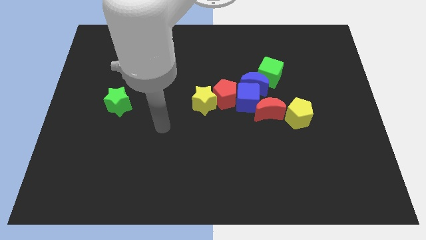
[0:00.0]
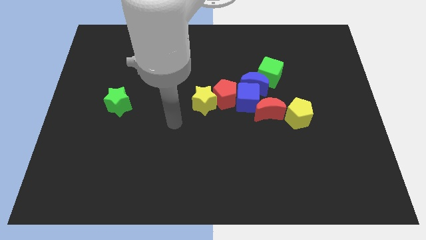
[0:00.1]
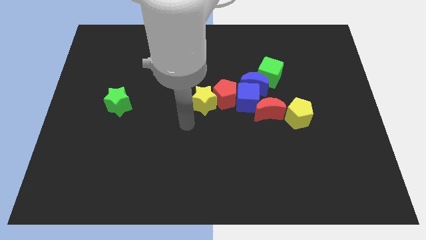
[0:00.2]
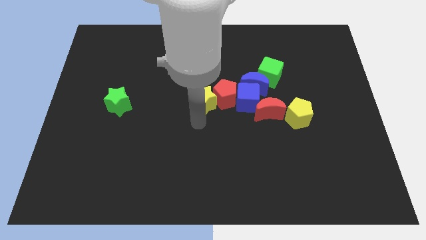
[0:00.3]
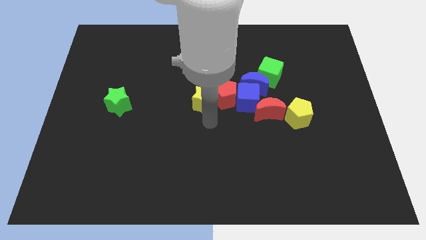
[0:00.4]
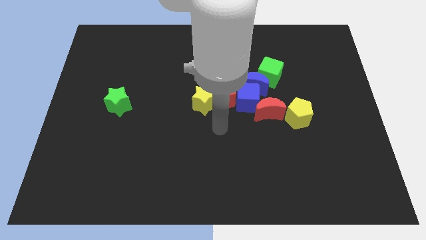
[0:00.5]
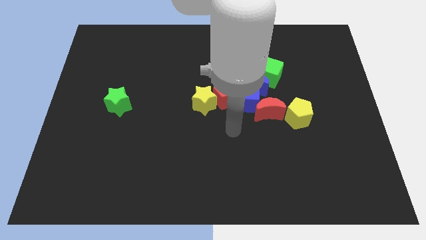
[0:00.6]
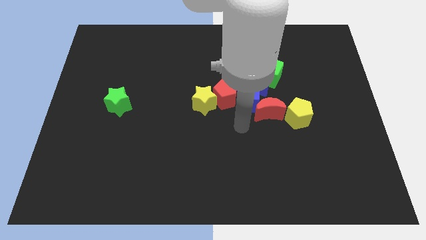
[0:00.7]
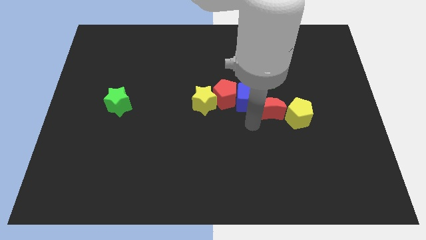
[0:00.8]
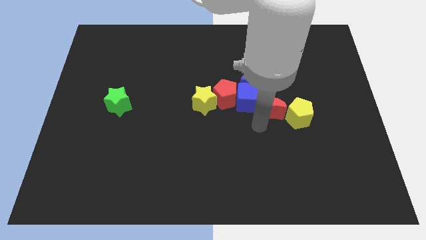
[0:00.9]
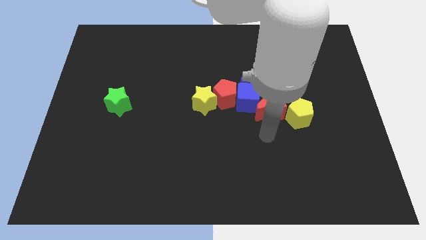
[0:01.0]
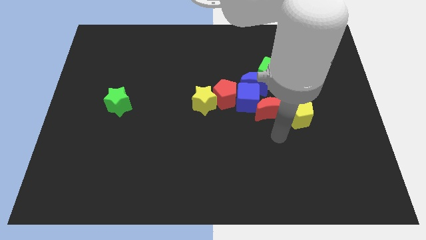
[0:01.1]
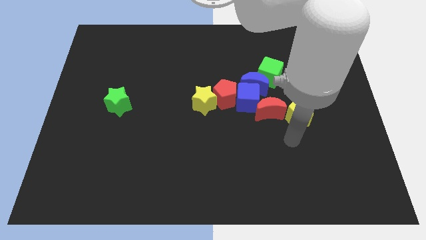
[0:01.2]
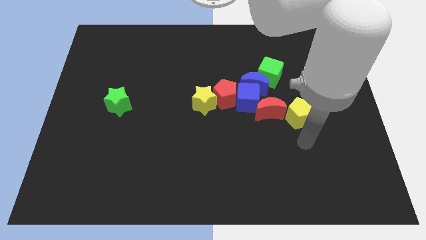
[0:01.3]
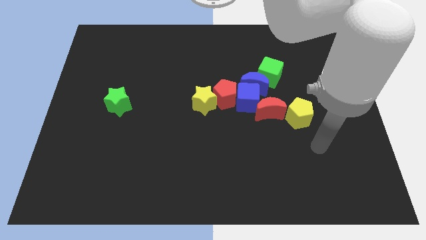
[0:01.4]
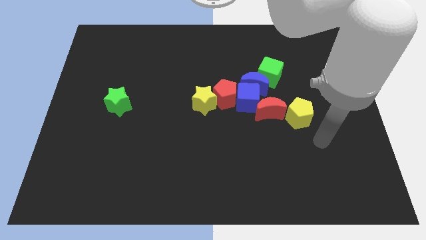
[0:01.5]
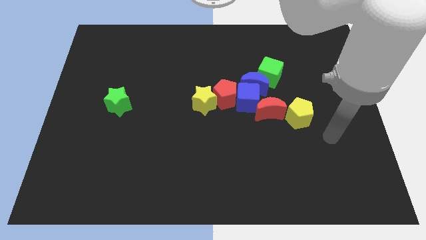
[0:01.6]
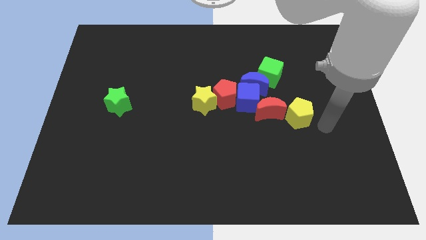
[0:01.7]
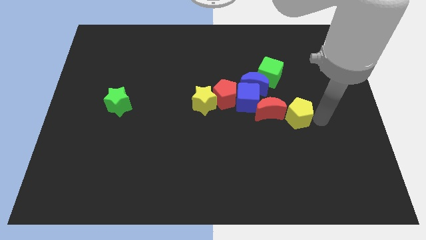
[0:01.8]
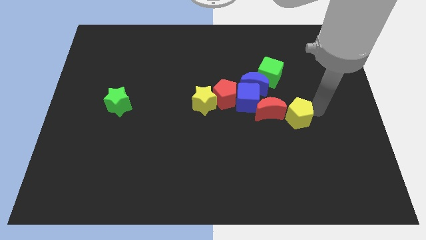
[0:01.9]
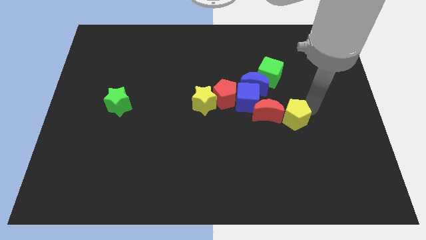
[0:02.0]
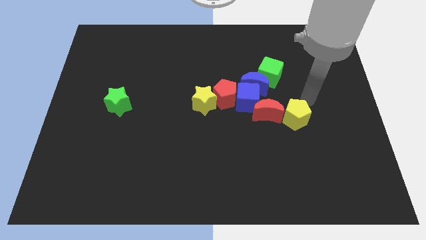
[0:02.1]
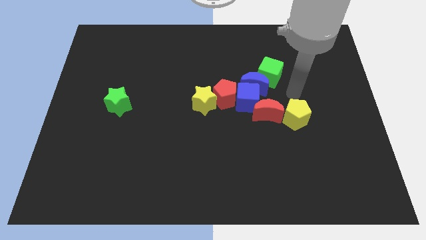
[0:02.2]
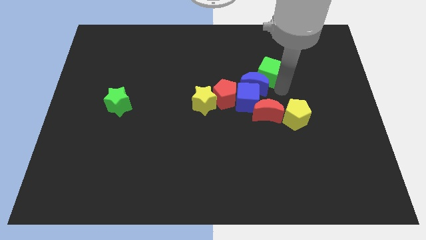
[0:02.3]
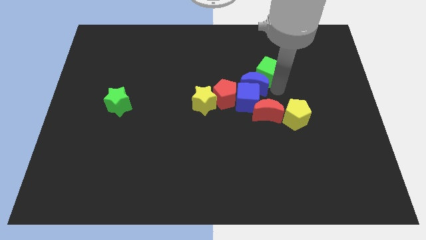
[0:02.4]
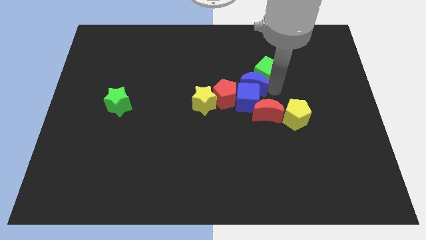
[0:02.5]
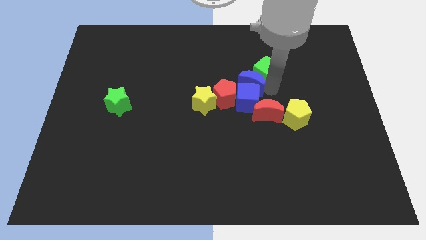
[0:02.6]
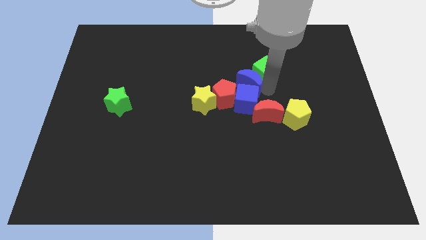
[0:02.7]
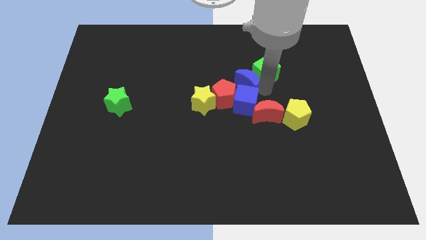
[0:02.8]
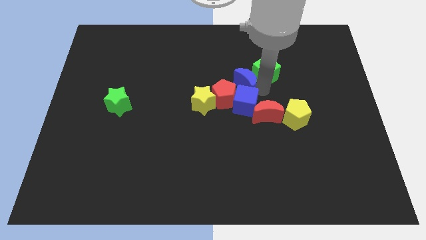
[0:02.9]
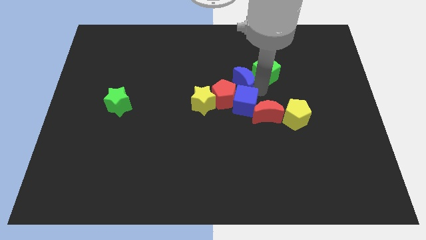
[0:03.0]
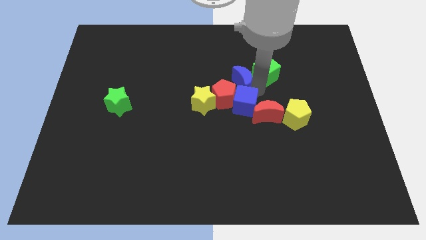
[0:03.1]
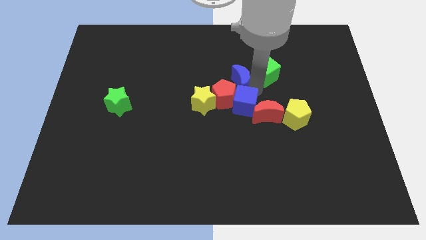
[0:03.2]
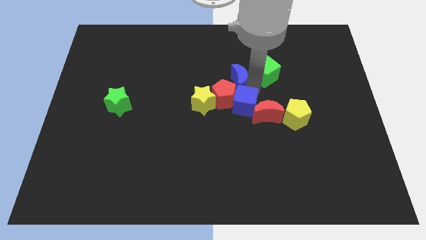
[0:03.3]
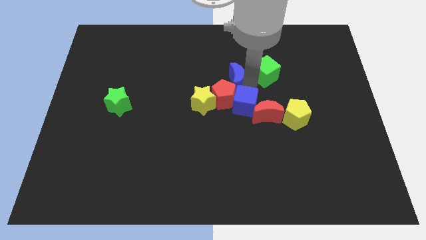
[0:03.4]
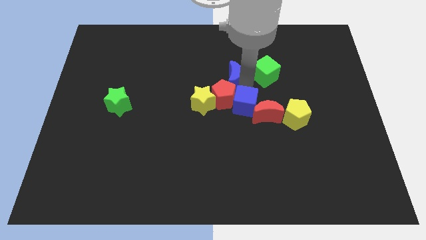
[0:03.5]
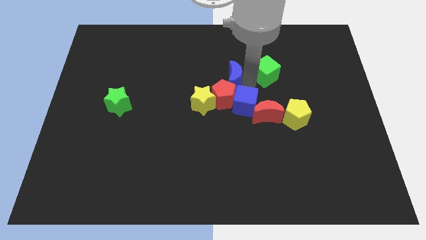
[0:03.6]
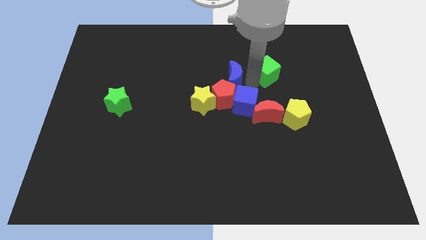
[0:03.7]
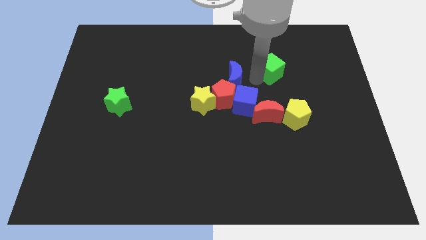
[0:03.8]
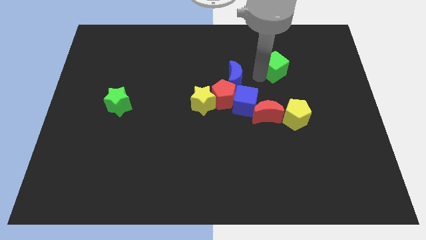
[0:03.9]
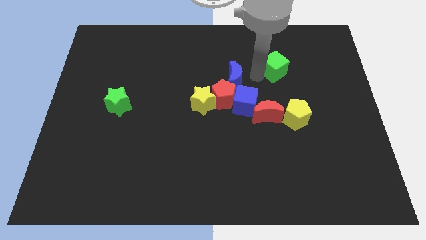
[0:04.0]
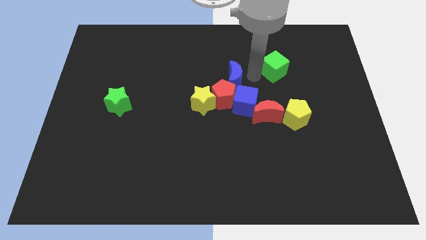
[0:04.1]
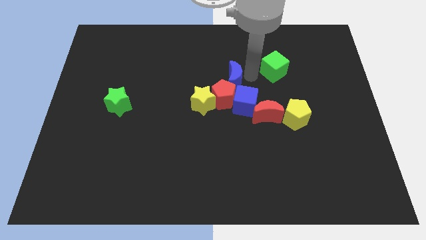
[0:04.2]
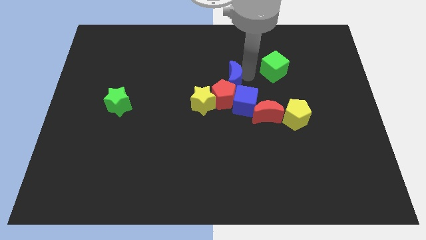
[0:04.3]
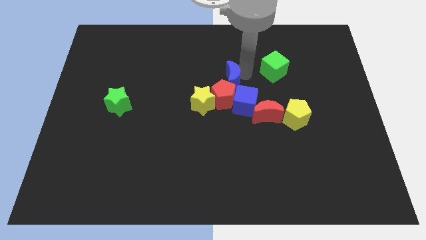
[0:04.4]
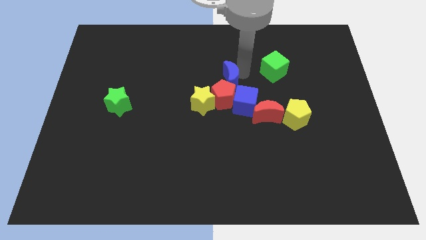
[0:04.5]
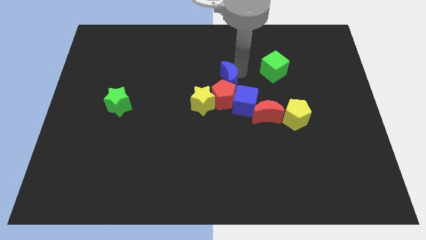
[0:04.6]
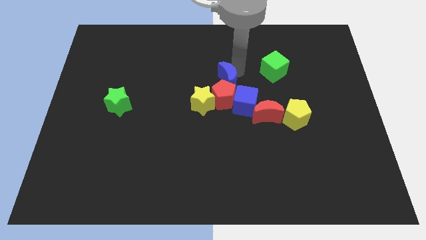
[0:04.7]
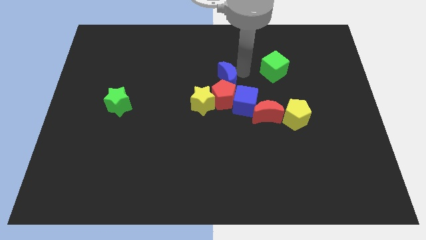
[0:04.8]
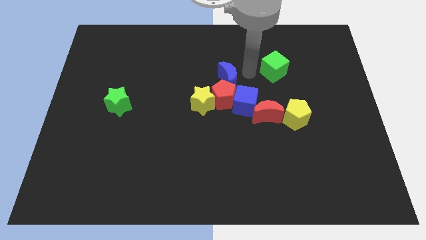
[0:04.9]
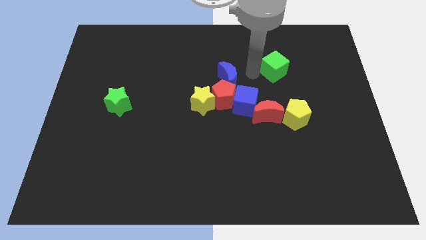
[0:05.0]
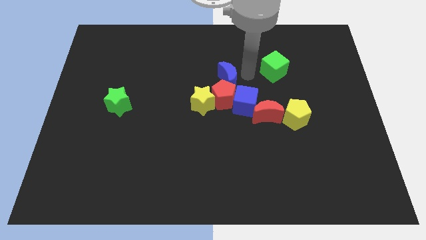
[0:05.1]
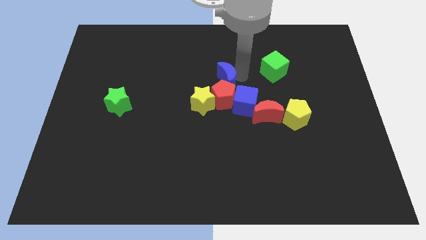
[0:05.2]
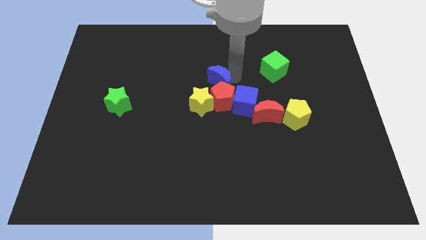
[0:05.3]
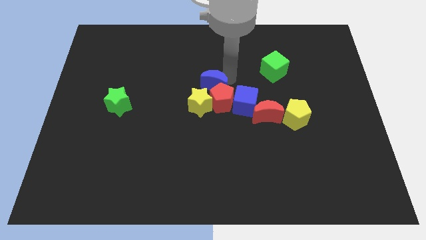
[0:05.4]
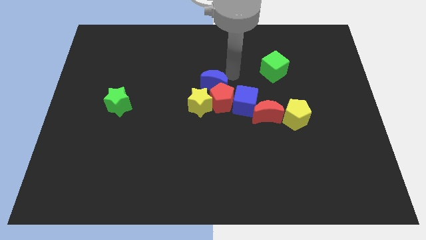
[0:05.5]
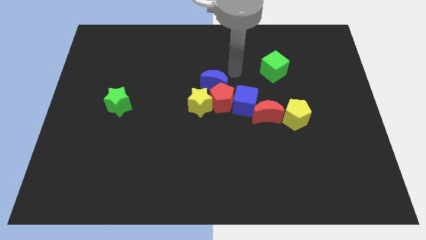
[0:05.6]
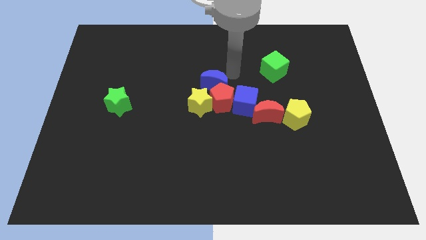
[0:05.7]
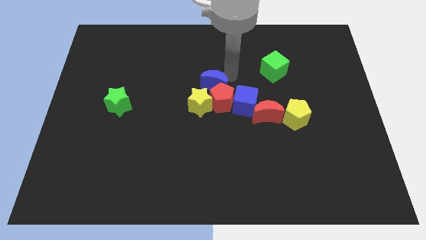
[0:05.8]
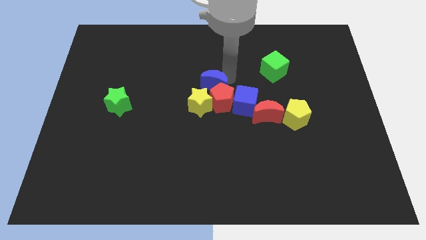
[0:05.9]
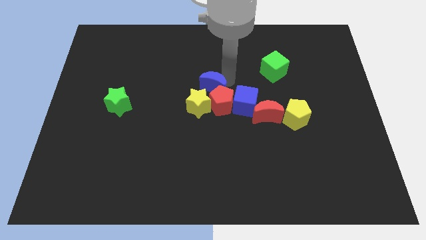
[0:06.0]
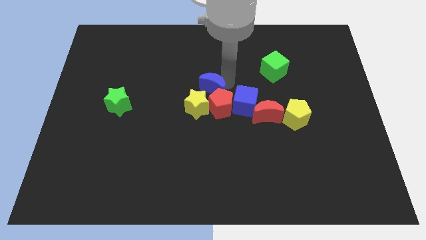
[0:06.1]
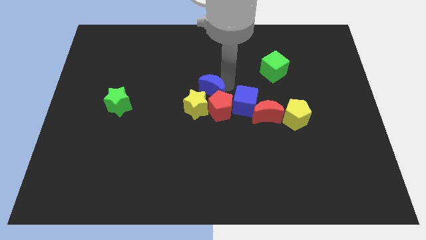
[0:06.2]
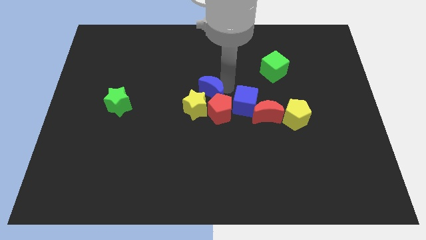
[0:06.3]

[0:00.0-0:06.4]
slightly slide the blue moon downwards and to the left diagonally

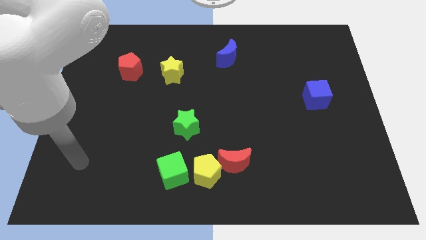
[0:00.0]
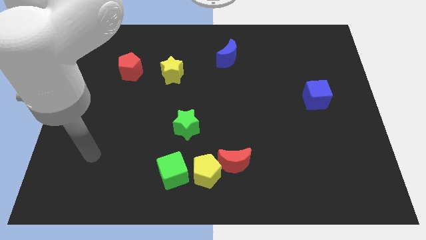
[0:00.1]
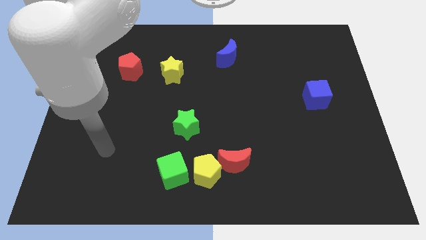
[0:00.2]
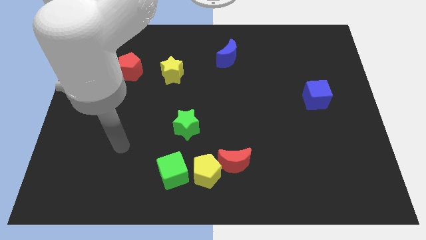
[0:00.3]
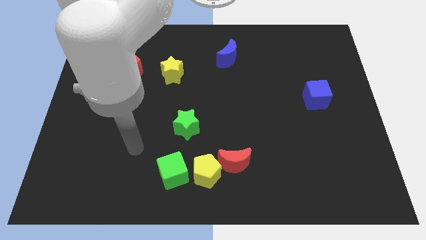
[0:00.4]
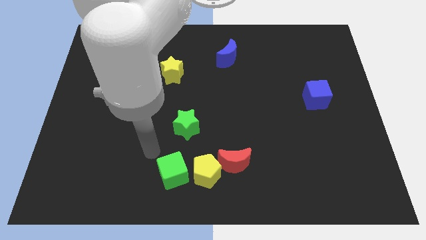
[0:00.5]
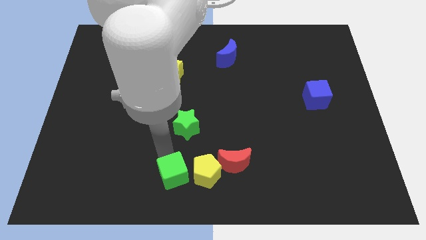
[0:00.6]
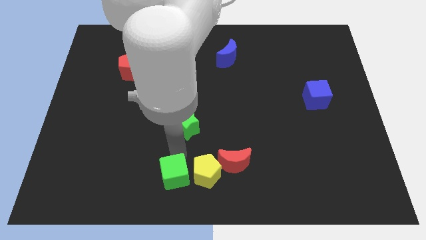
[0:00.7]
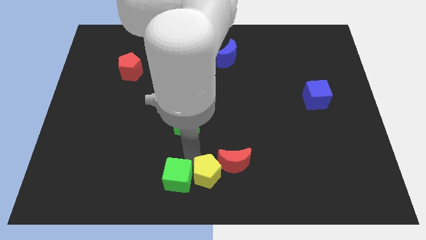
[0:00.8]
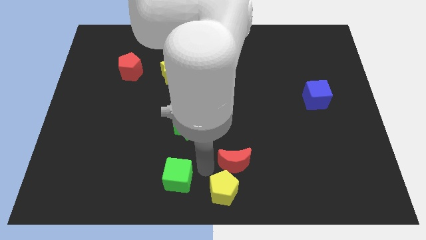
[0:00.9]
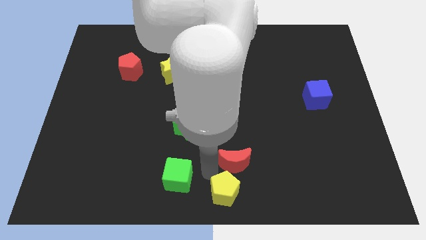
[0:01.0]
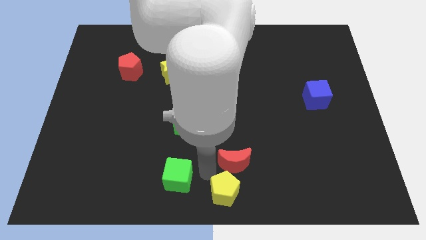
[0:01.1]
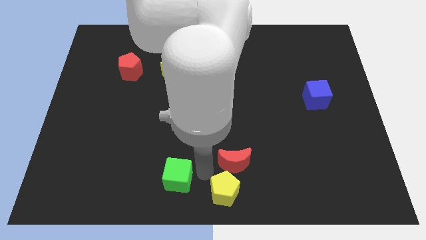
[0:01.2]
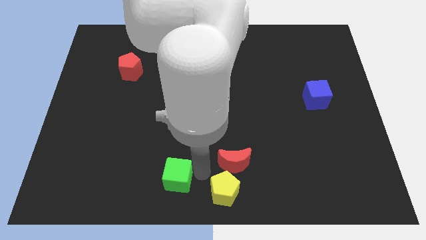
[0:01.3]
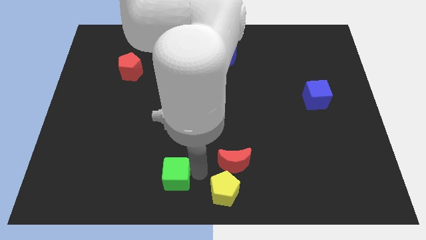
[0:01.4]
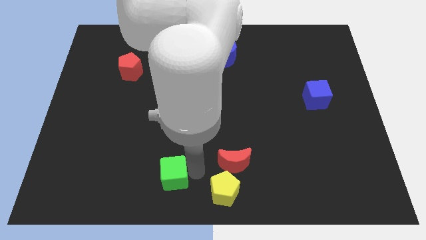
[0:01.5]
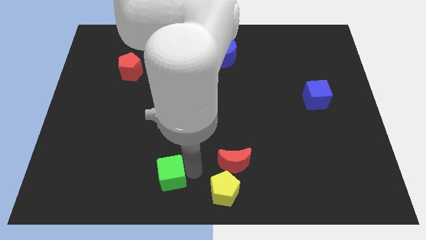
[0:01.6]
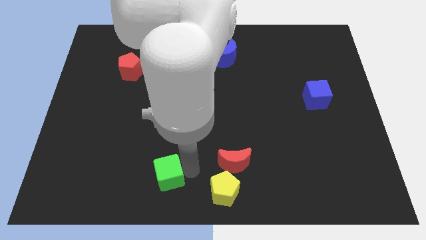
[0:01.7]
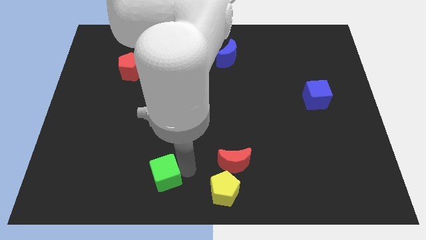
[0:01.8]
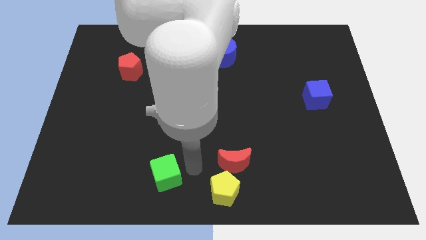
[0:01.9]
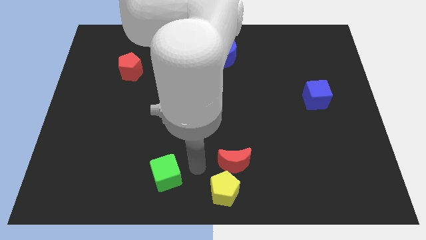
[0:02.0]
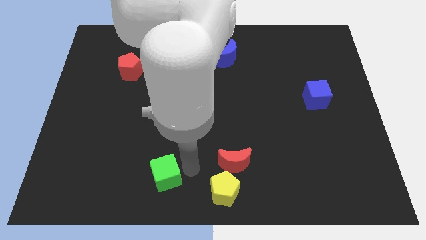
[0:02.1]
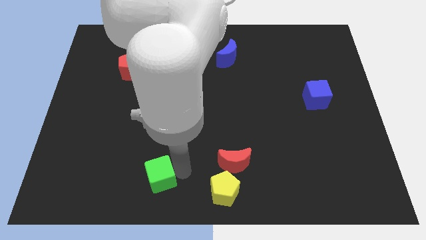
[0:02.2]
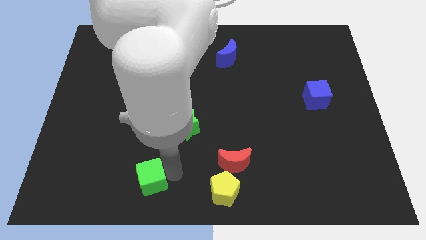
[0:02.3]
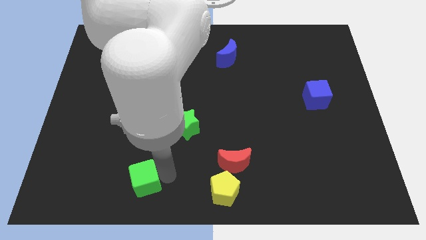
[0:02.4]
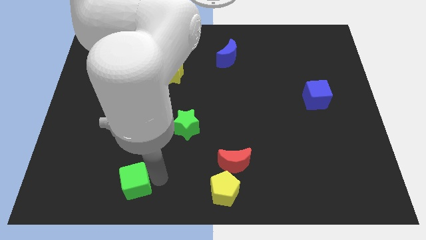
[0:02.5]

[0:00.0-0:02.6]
slide the green cube to the left slightly
